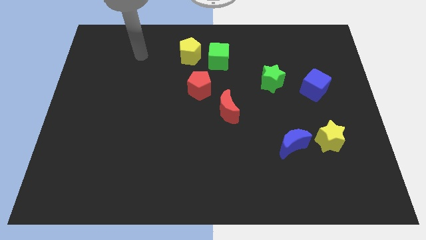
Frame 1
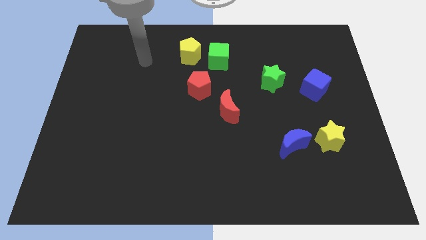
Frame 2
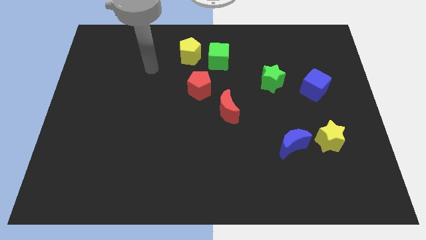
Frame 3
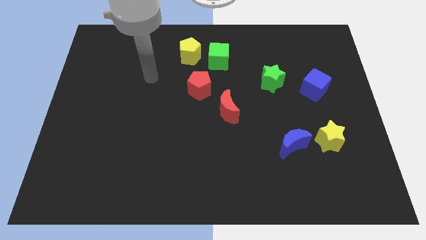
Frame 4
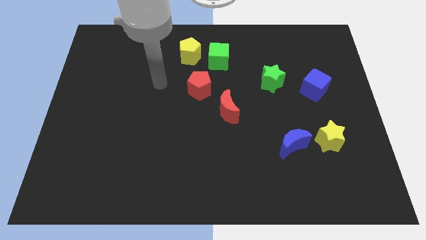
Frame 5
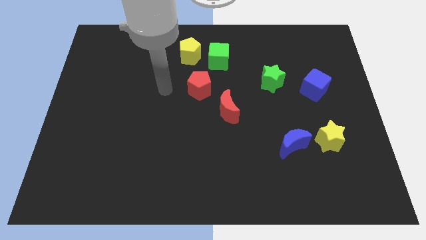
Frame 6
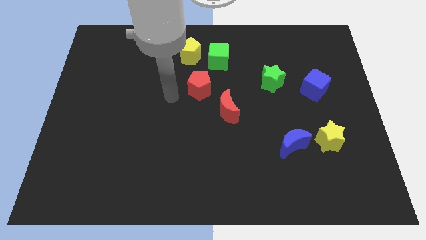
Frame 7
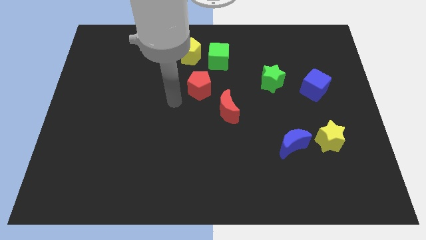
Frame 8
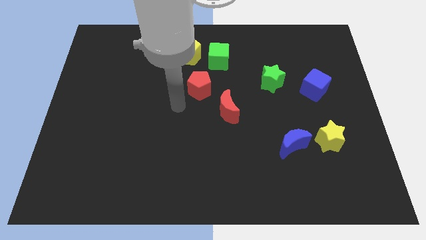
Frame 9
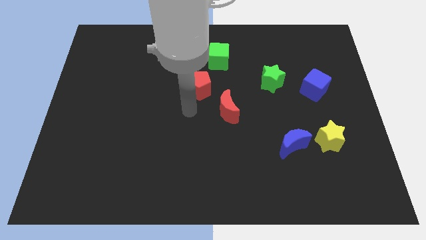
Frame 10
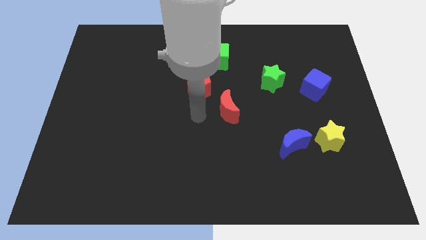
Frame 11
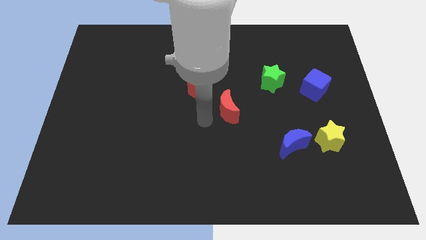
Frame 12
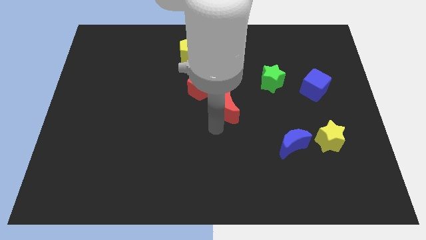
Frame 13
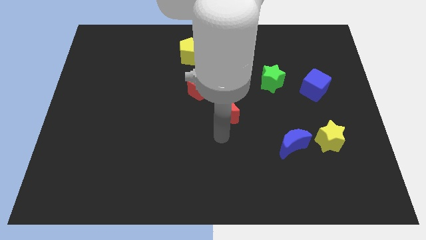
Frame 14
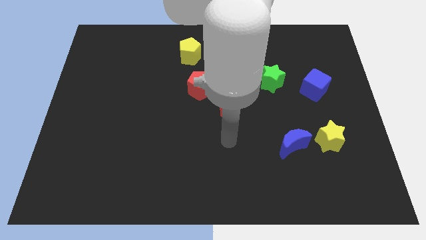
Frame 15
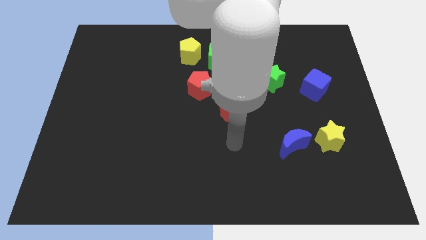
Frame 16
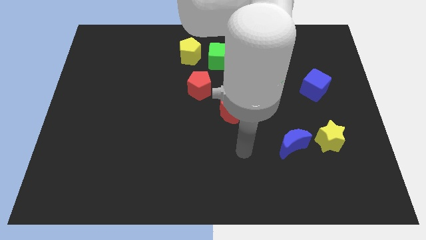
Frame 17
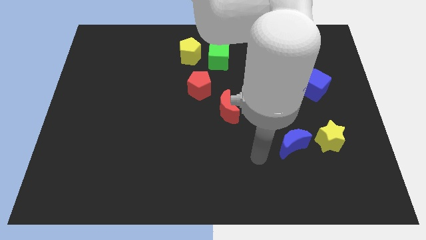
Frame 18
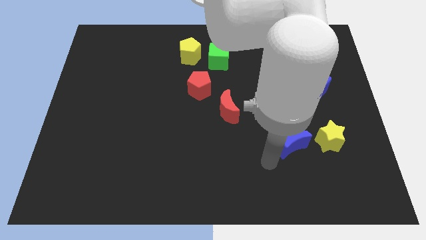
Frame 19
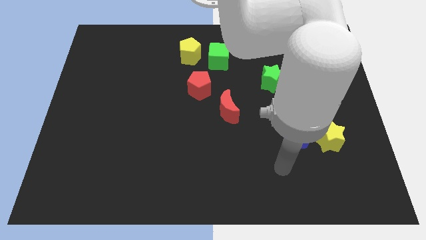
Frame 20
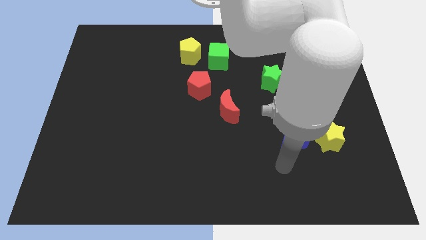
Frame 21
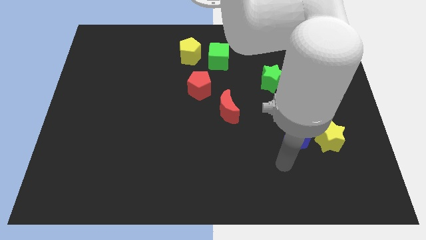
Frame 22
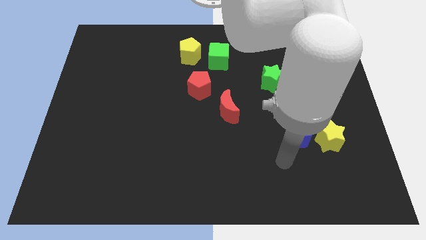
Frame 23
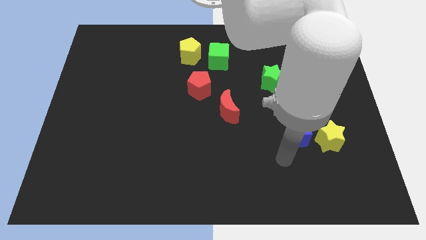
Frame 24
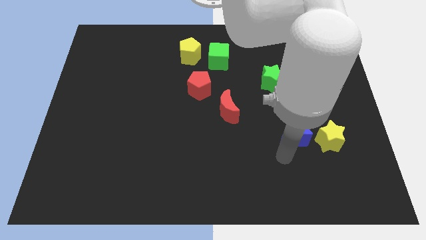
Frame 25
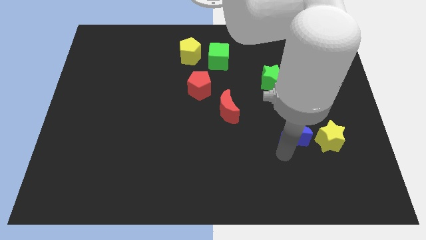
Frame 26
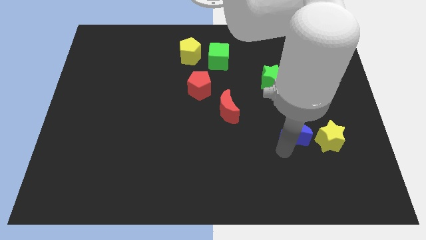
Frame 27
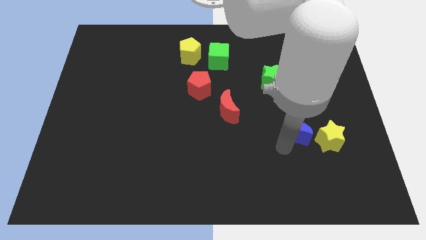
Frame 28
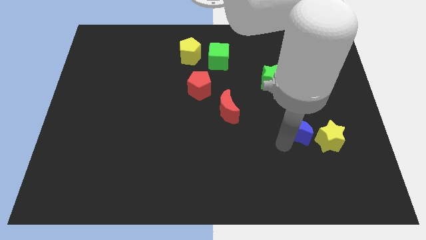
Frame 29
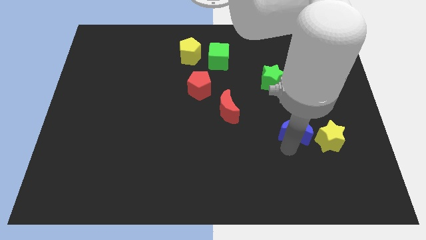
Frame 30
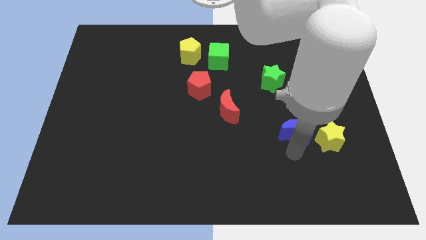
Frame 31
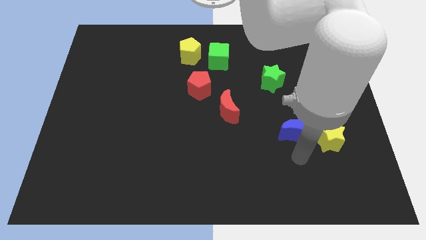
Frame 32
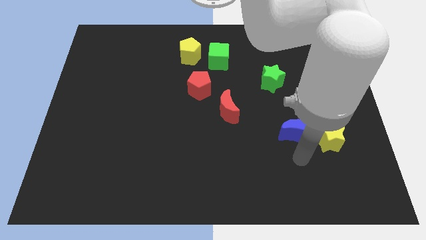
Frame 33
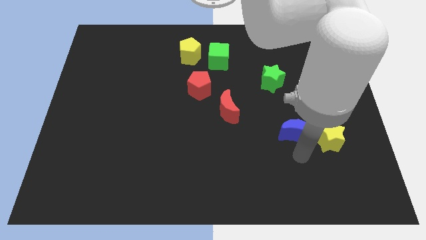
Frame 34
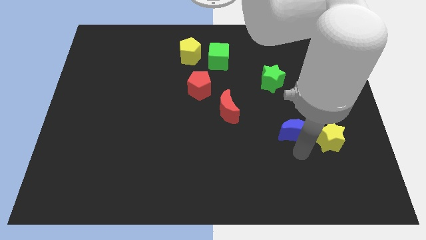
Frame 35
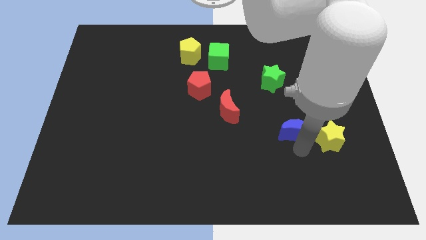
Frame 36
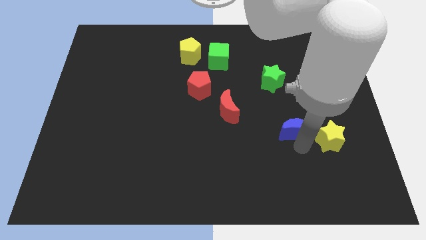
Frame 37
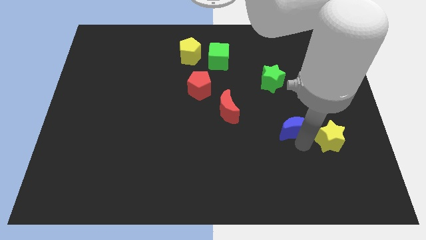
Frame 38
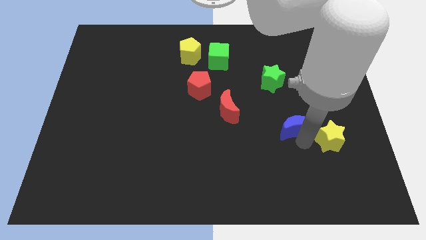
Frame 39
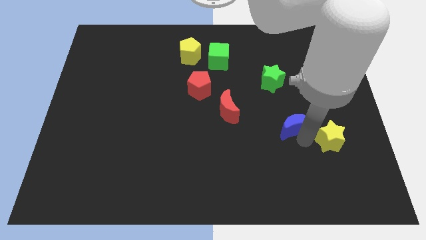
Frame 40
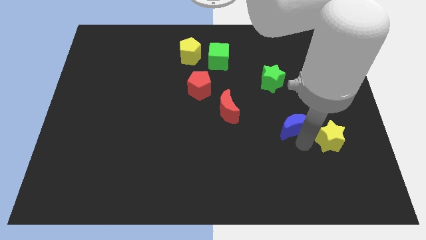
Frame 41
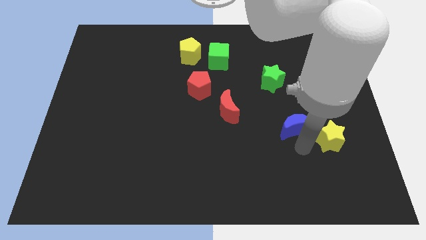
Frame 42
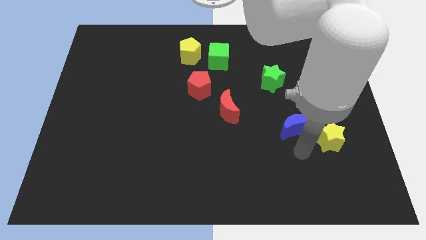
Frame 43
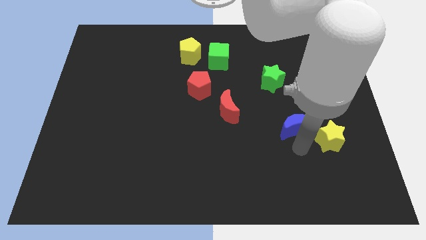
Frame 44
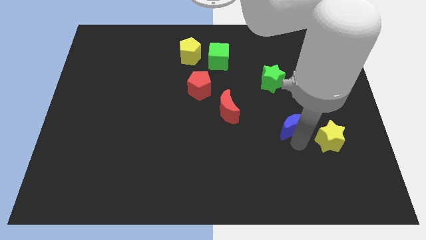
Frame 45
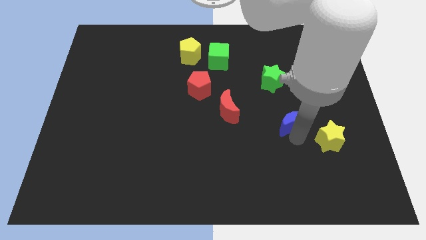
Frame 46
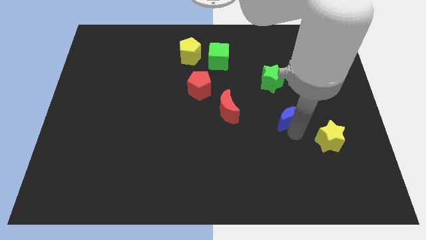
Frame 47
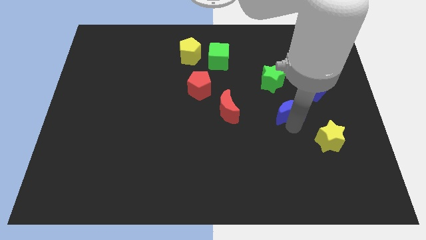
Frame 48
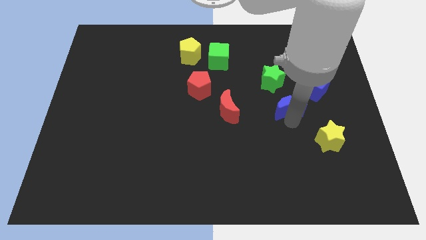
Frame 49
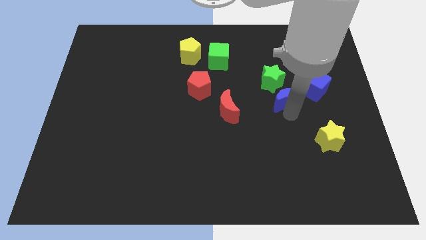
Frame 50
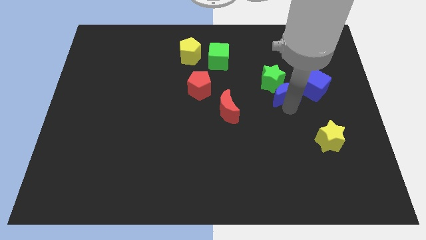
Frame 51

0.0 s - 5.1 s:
slide the blue moon close to the green star

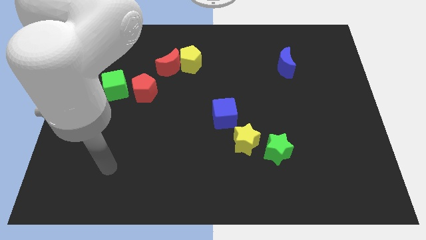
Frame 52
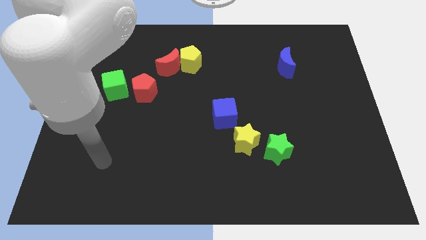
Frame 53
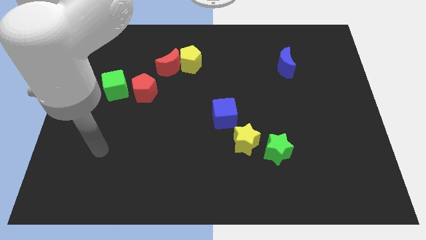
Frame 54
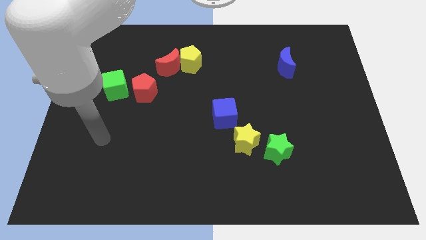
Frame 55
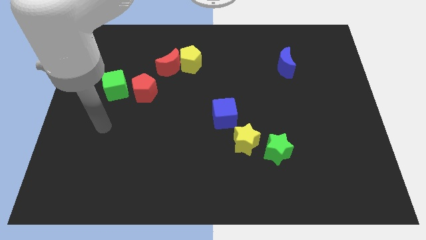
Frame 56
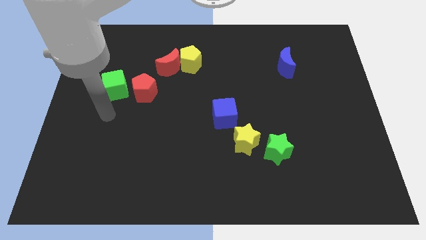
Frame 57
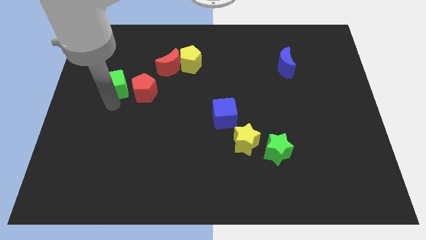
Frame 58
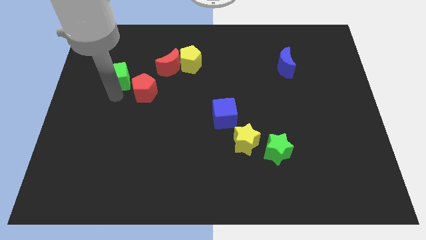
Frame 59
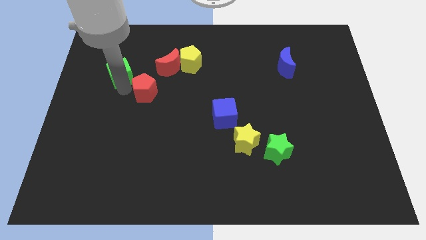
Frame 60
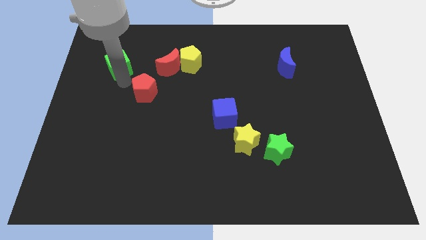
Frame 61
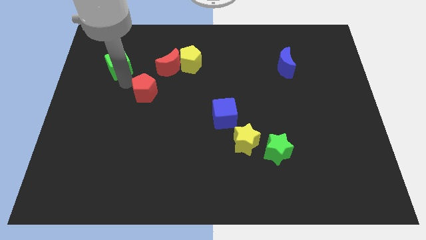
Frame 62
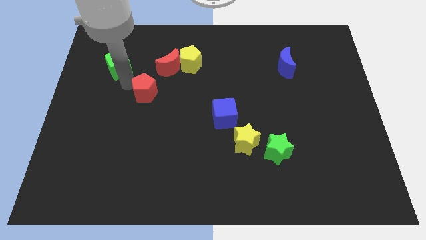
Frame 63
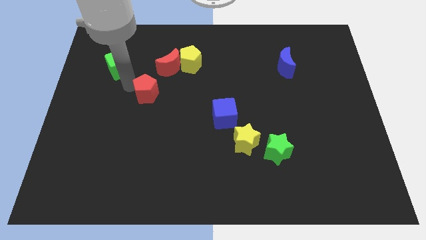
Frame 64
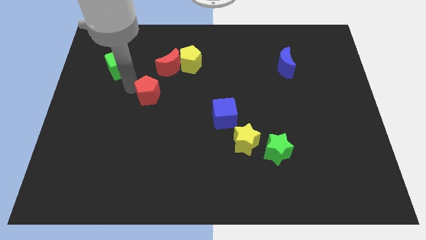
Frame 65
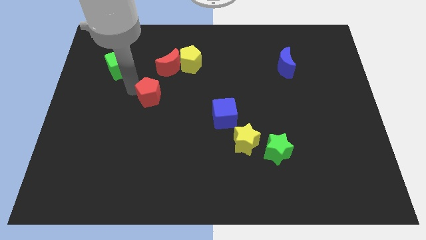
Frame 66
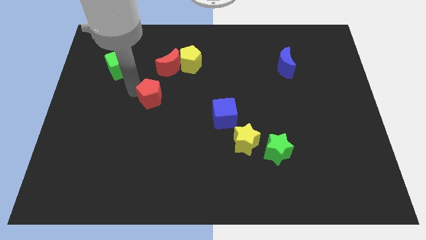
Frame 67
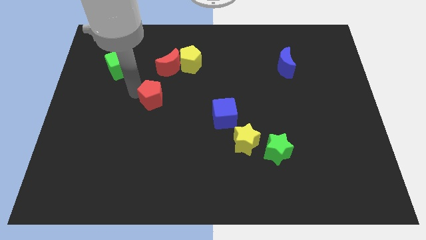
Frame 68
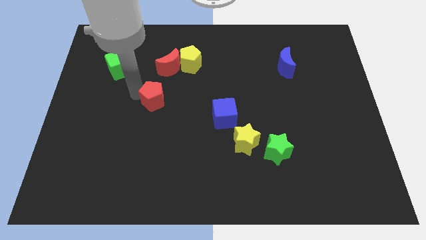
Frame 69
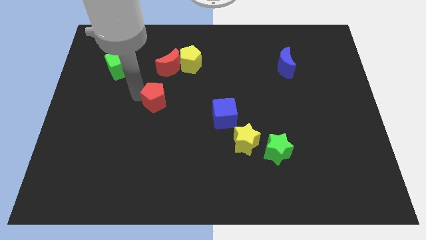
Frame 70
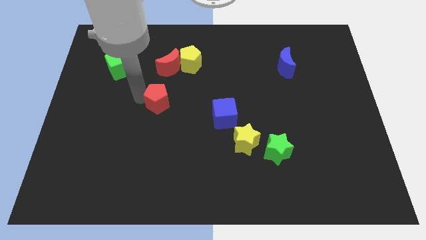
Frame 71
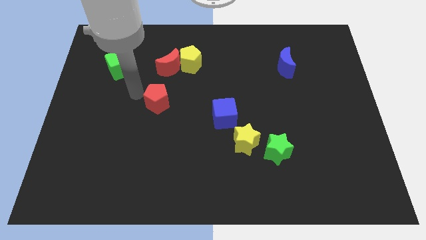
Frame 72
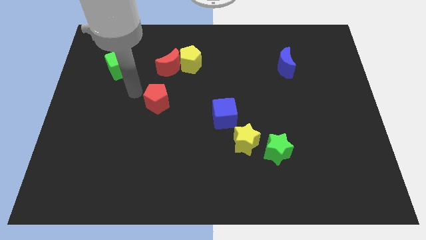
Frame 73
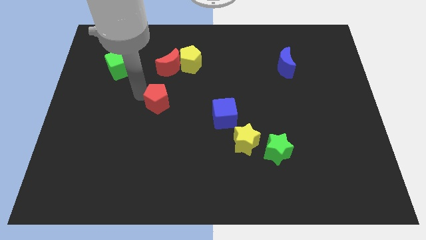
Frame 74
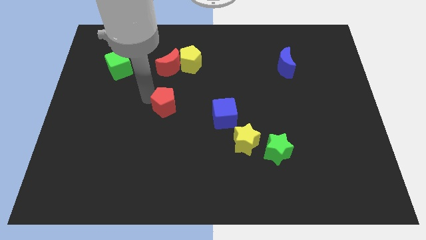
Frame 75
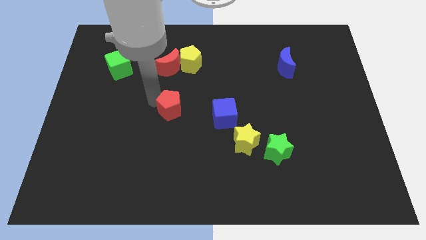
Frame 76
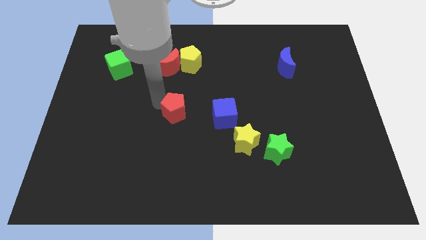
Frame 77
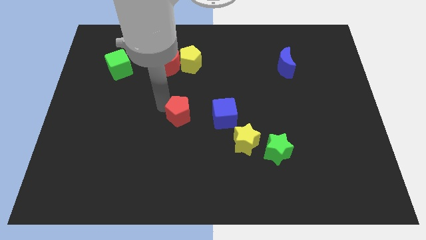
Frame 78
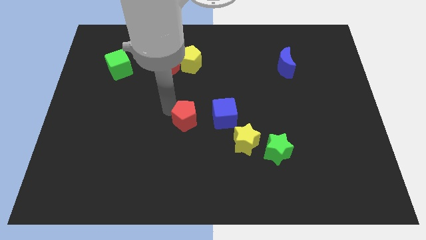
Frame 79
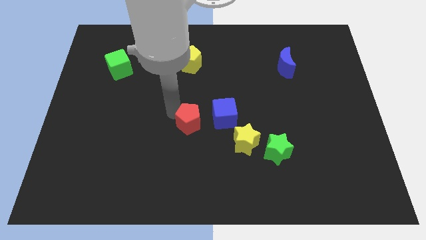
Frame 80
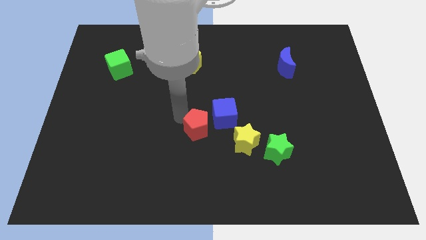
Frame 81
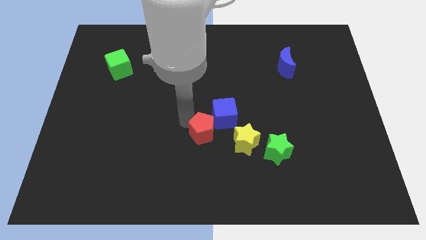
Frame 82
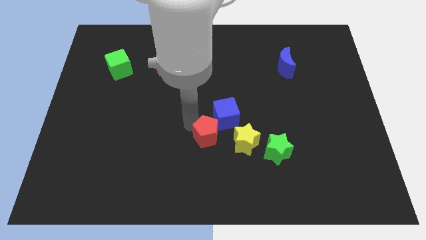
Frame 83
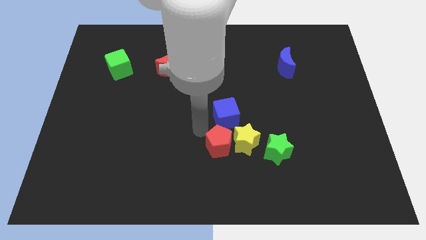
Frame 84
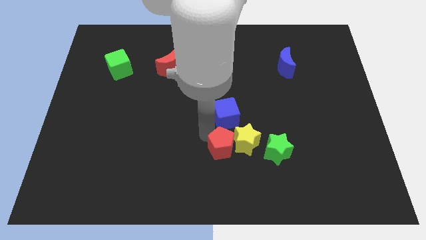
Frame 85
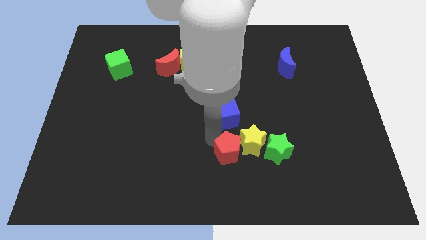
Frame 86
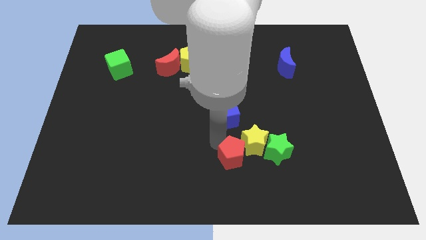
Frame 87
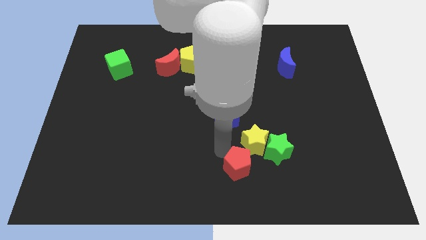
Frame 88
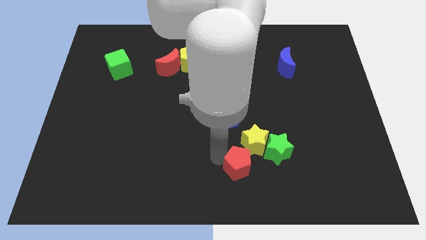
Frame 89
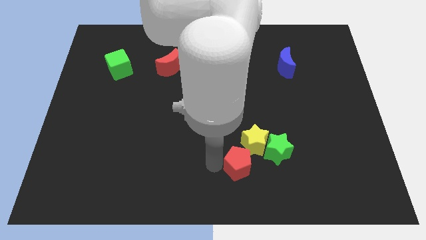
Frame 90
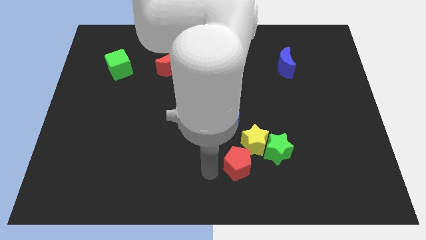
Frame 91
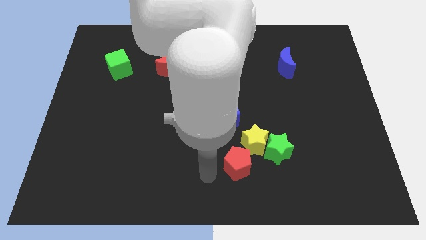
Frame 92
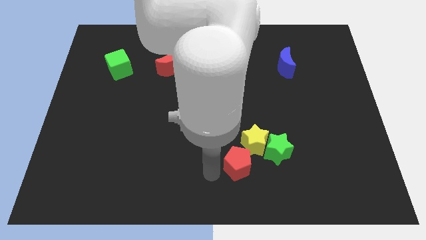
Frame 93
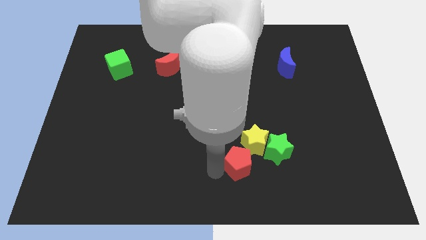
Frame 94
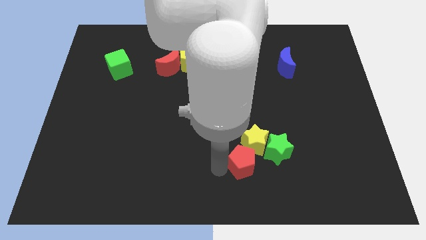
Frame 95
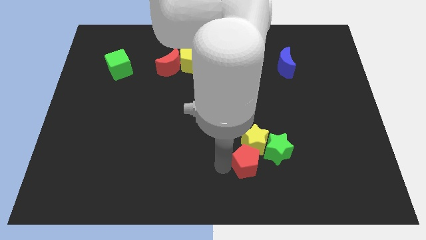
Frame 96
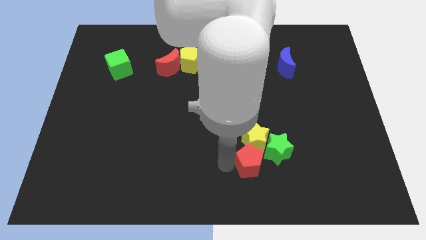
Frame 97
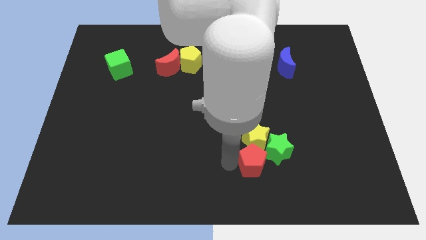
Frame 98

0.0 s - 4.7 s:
slide the red pentagon close to the green star
